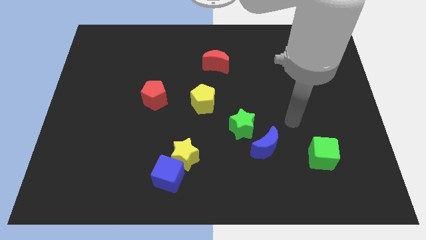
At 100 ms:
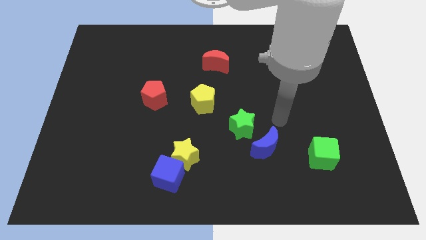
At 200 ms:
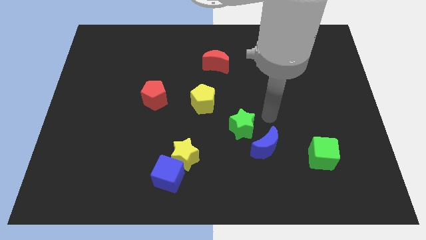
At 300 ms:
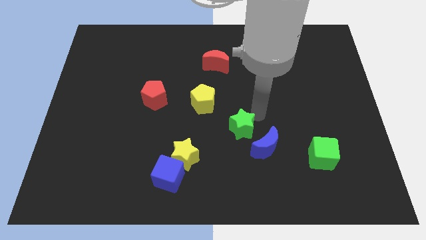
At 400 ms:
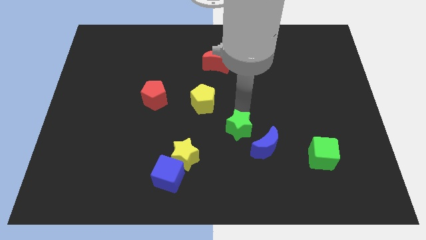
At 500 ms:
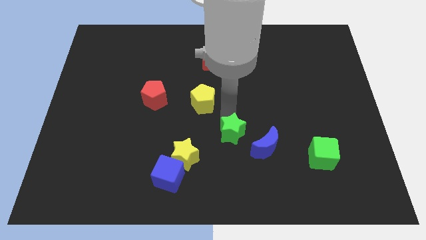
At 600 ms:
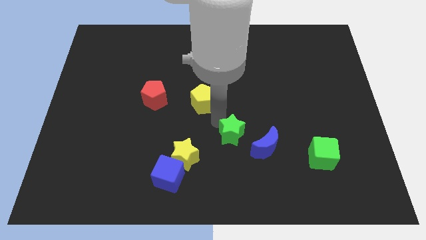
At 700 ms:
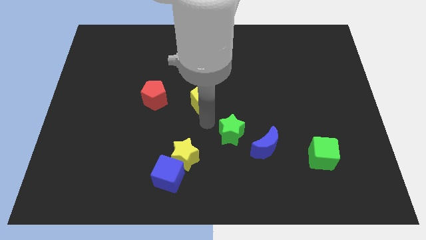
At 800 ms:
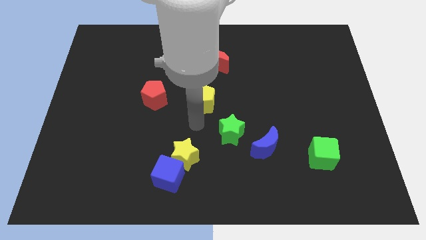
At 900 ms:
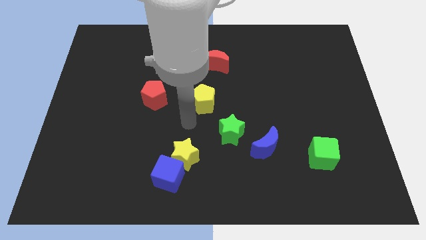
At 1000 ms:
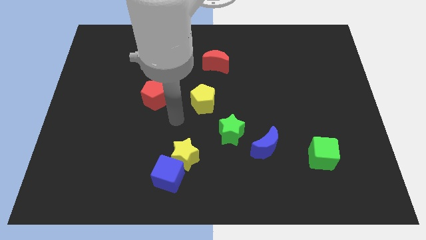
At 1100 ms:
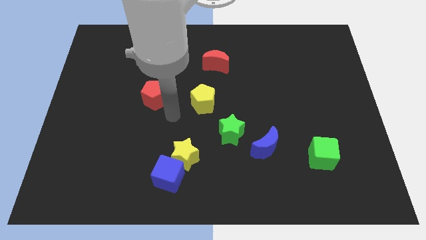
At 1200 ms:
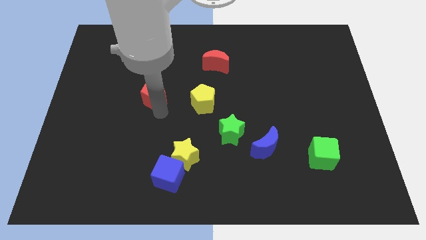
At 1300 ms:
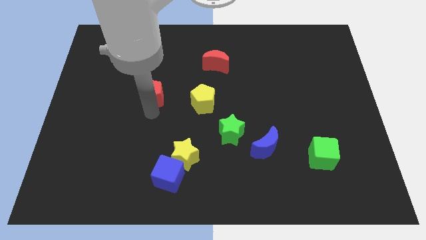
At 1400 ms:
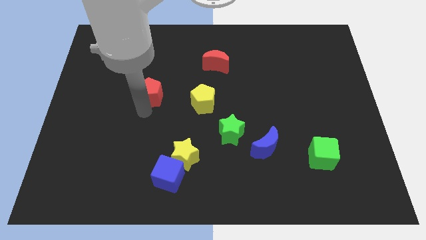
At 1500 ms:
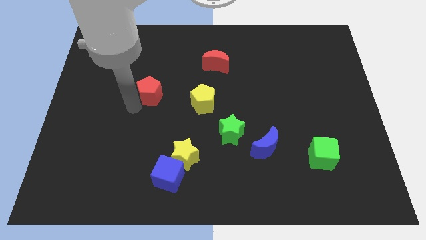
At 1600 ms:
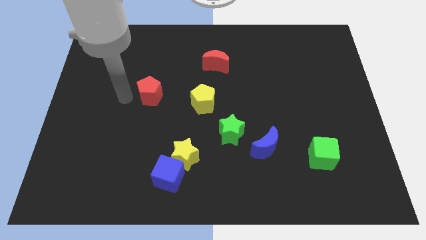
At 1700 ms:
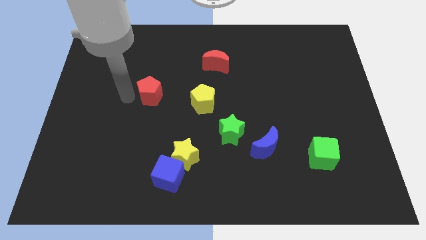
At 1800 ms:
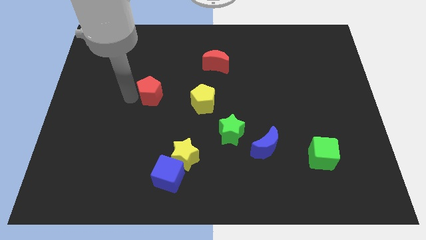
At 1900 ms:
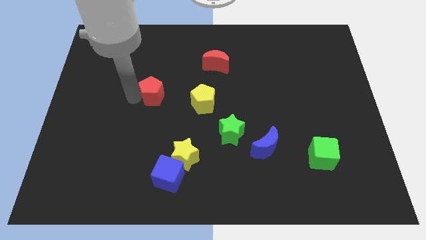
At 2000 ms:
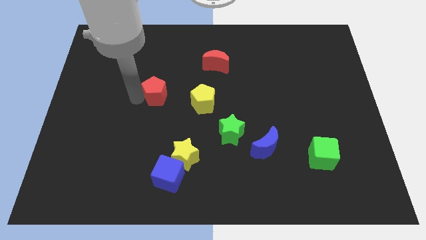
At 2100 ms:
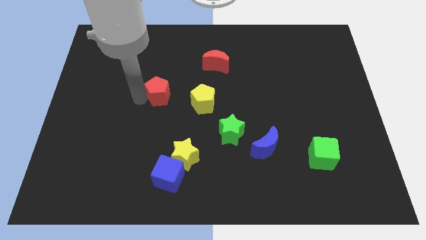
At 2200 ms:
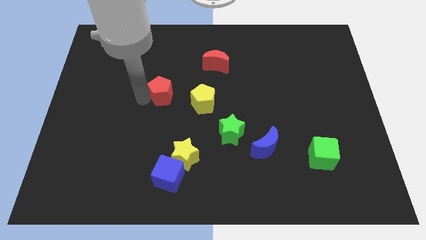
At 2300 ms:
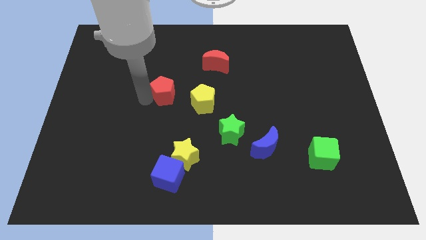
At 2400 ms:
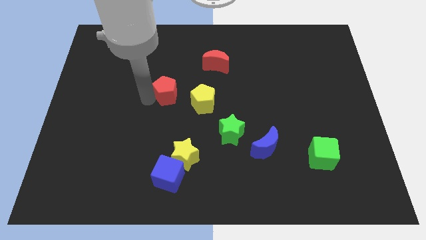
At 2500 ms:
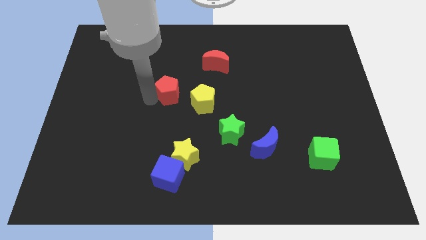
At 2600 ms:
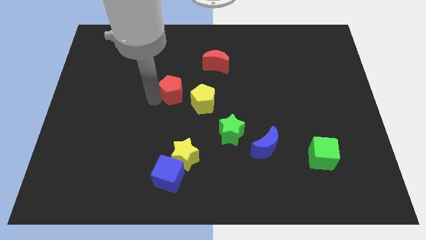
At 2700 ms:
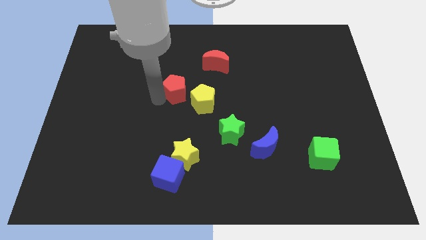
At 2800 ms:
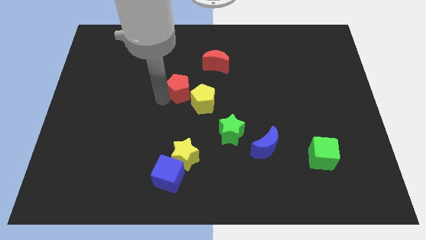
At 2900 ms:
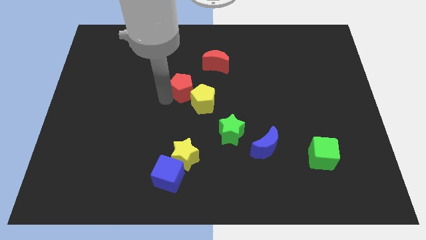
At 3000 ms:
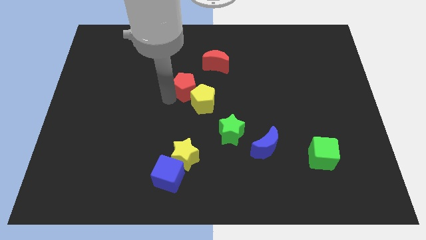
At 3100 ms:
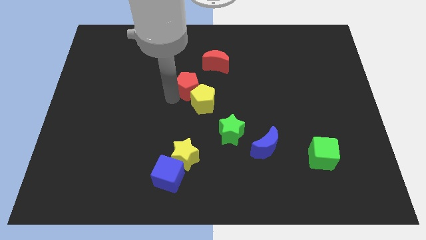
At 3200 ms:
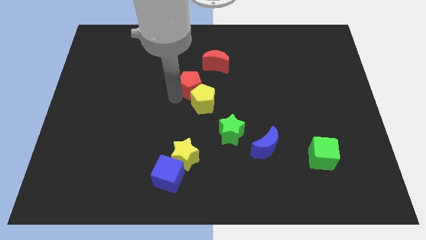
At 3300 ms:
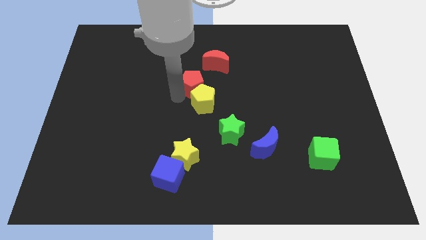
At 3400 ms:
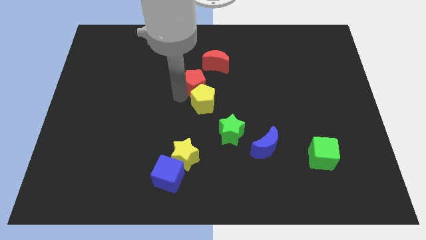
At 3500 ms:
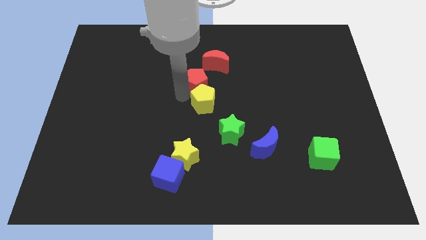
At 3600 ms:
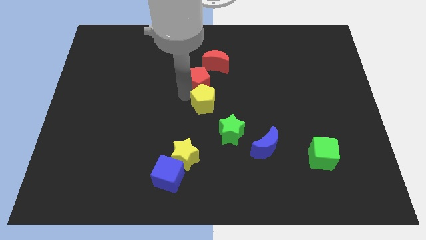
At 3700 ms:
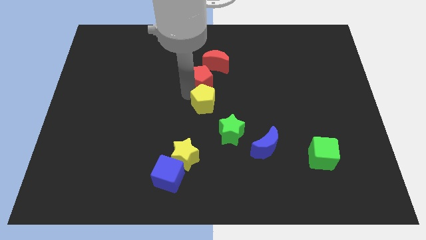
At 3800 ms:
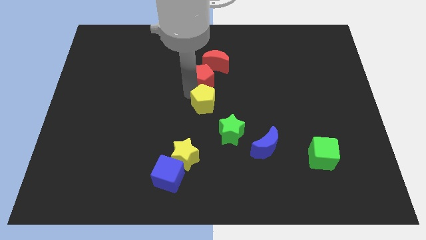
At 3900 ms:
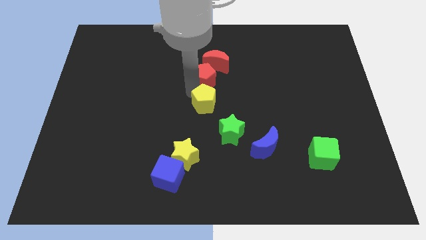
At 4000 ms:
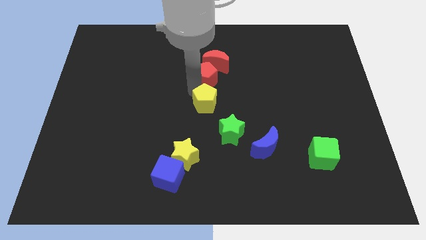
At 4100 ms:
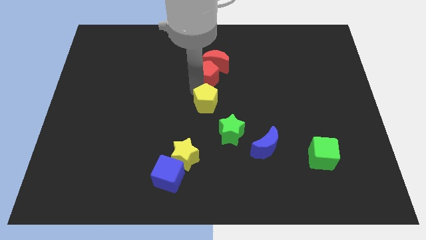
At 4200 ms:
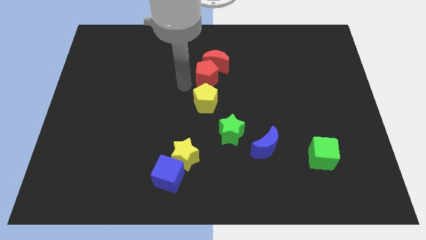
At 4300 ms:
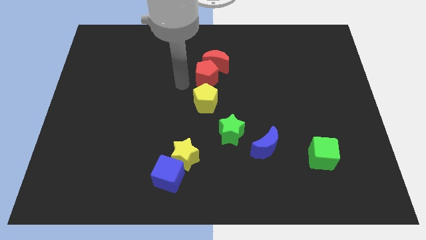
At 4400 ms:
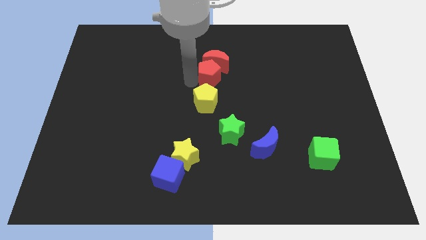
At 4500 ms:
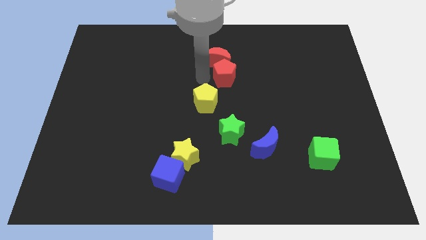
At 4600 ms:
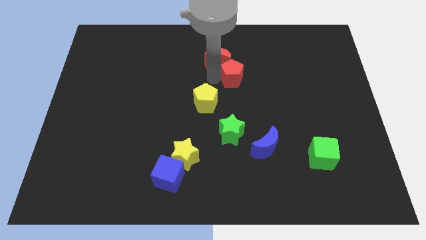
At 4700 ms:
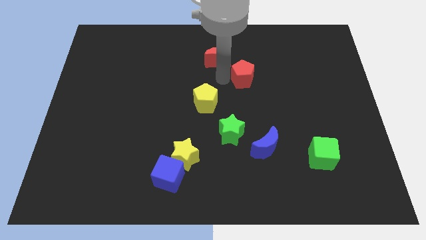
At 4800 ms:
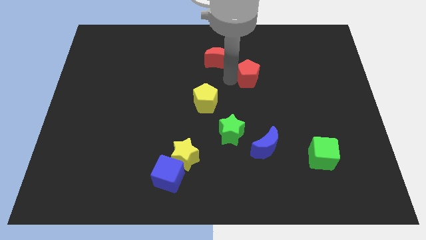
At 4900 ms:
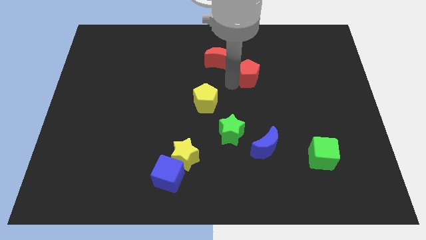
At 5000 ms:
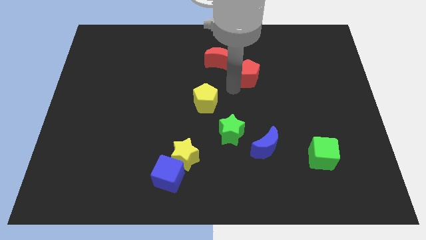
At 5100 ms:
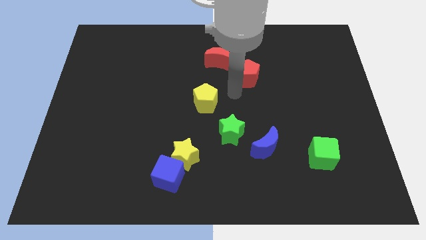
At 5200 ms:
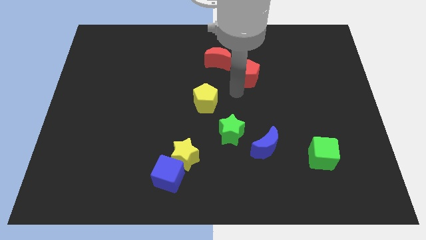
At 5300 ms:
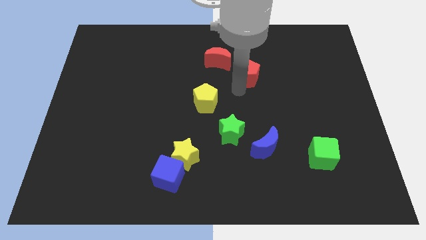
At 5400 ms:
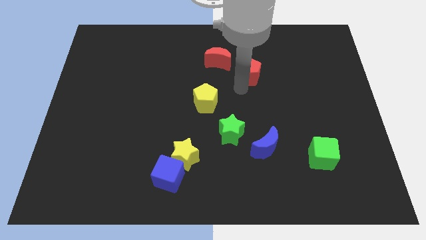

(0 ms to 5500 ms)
slide the red pentagon to the right side of the red moon

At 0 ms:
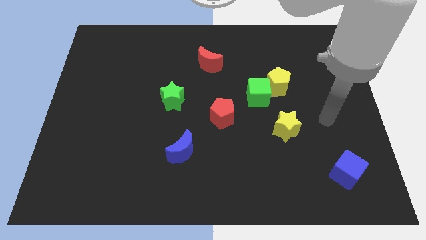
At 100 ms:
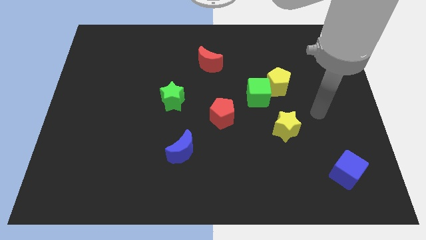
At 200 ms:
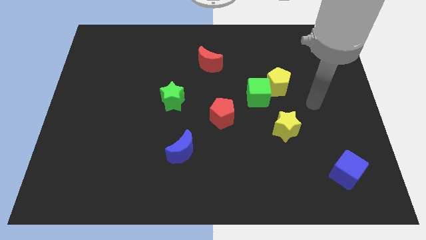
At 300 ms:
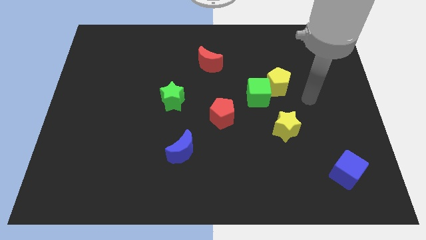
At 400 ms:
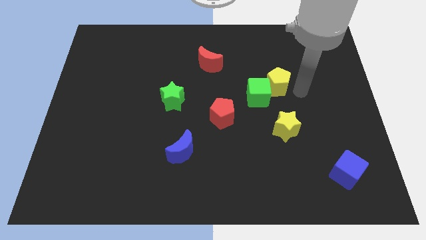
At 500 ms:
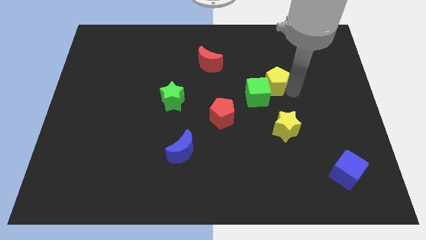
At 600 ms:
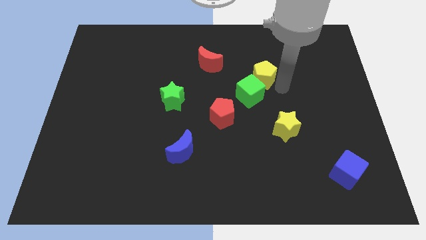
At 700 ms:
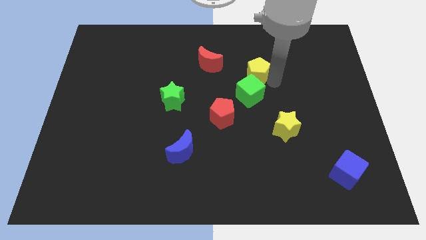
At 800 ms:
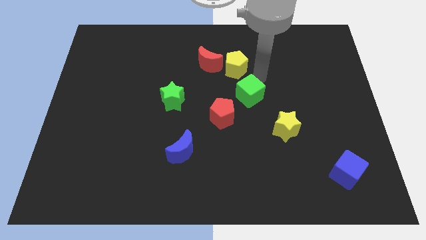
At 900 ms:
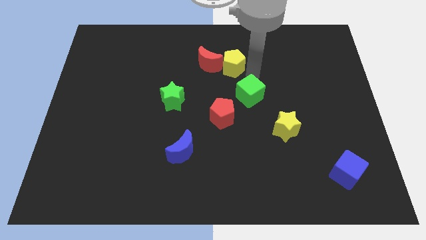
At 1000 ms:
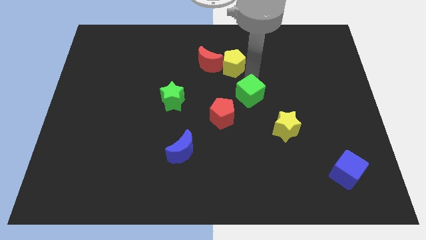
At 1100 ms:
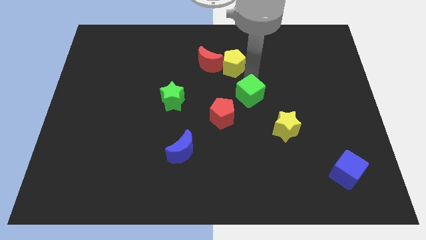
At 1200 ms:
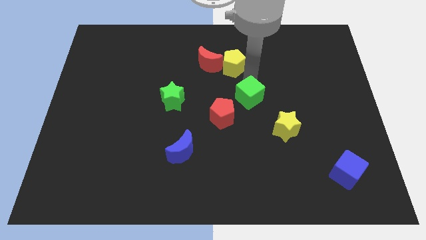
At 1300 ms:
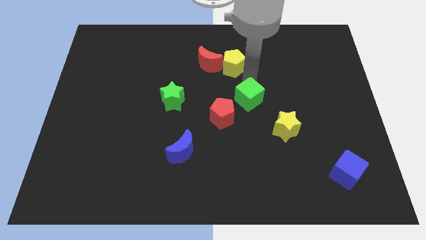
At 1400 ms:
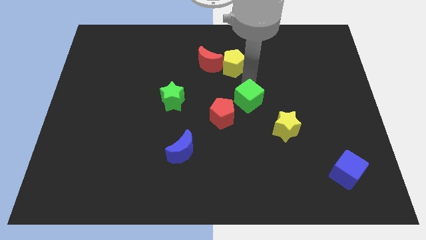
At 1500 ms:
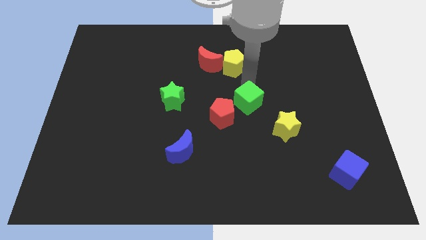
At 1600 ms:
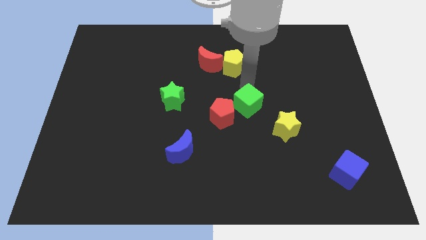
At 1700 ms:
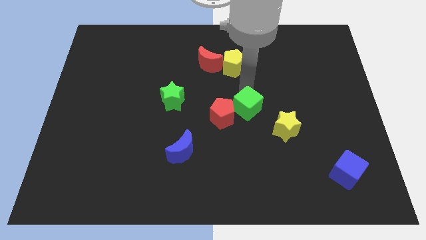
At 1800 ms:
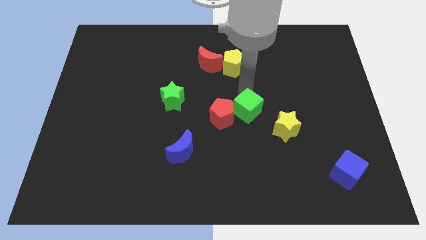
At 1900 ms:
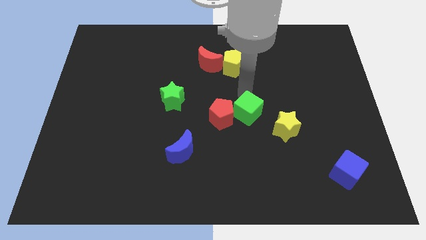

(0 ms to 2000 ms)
push the green cube just left of the yellow star
